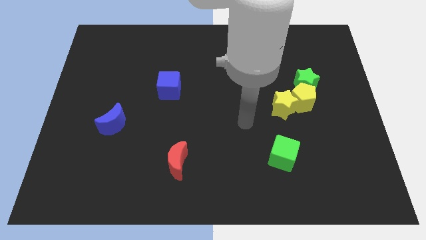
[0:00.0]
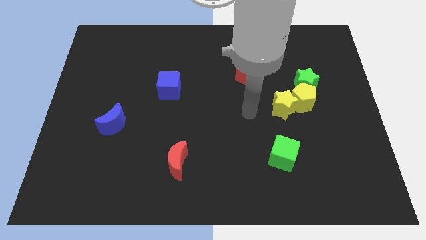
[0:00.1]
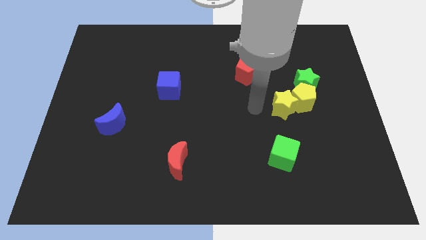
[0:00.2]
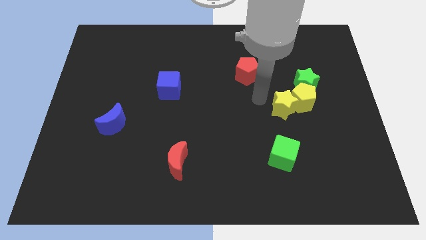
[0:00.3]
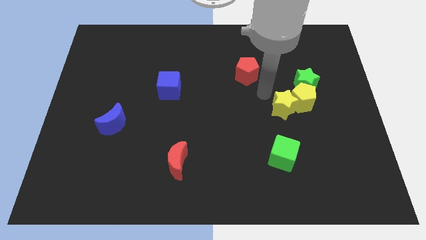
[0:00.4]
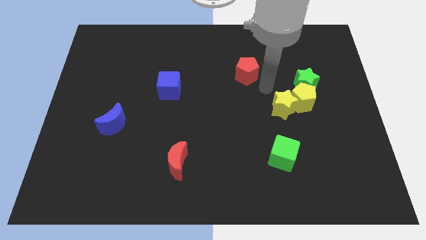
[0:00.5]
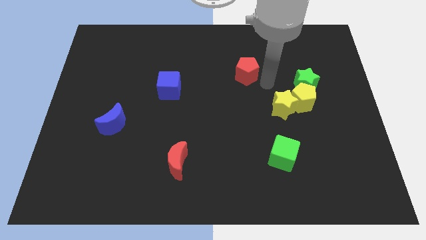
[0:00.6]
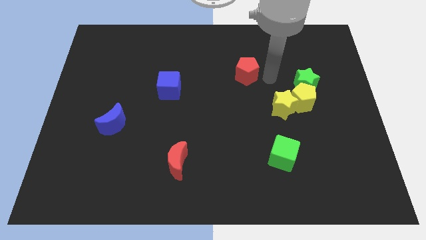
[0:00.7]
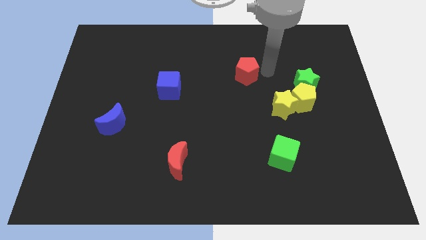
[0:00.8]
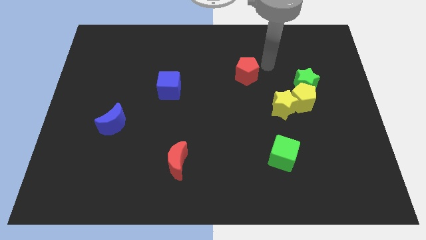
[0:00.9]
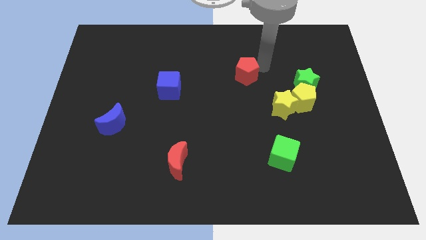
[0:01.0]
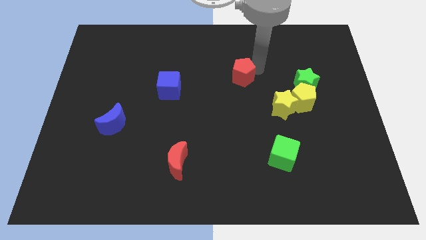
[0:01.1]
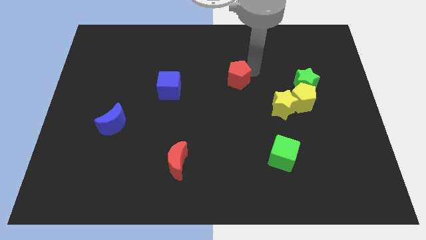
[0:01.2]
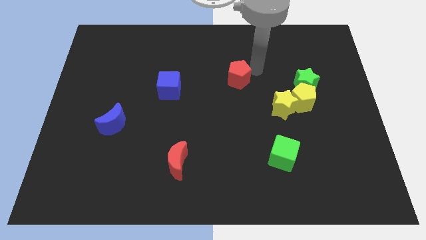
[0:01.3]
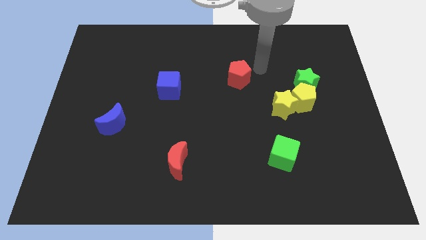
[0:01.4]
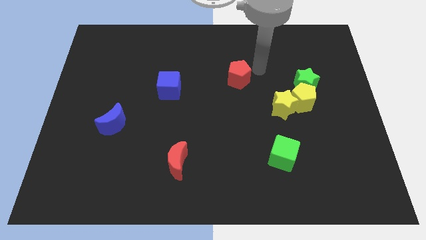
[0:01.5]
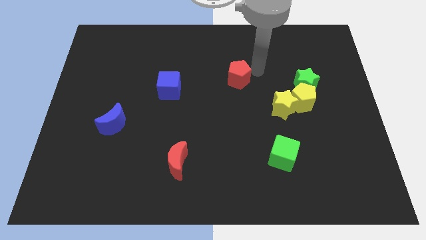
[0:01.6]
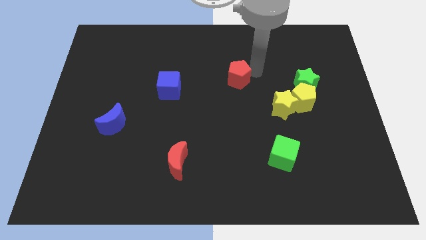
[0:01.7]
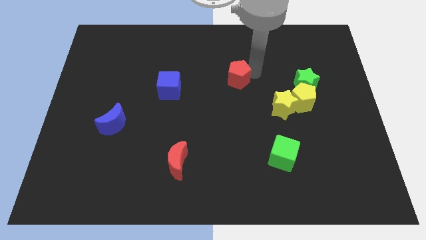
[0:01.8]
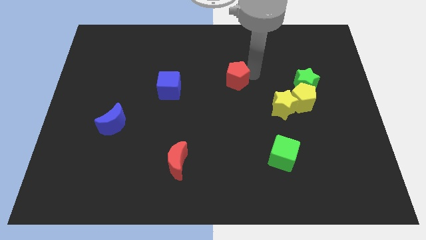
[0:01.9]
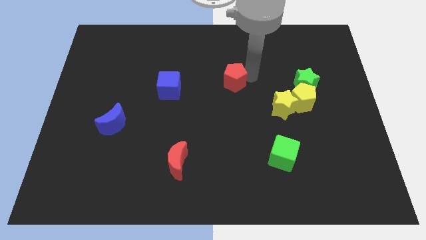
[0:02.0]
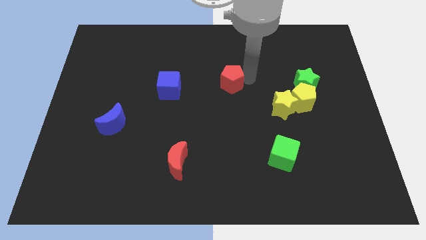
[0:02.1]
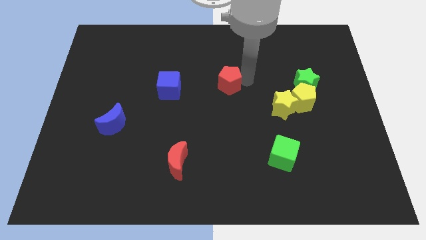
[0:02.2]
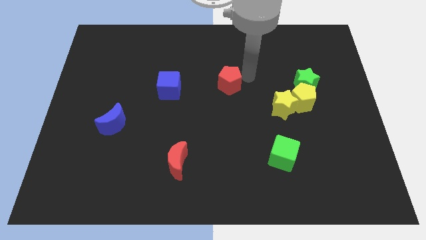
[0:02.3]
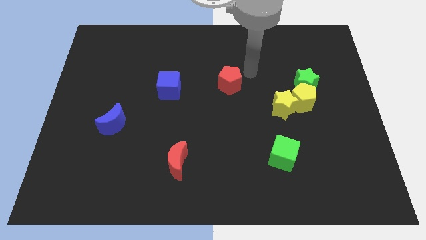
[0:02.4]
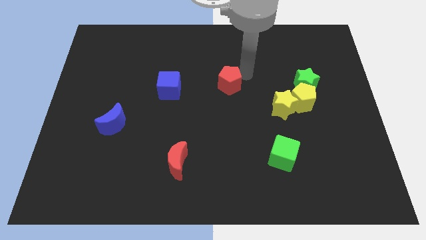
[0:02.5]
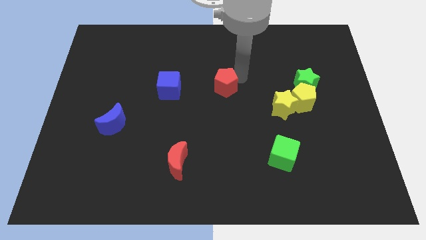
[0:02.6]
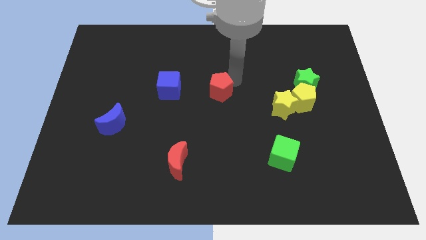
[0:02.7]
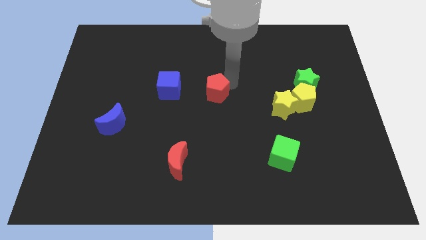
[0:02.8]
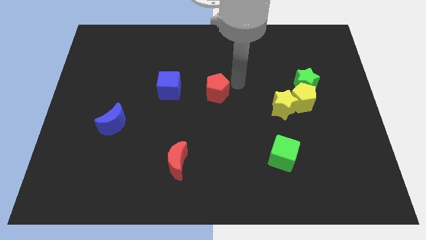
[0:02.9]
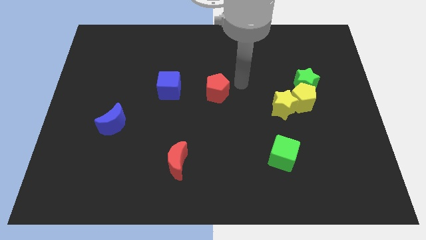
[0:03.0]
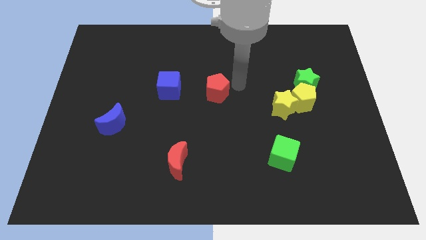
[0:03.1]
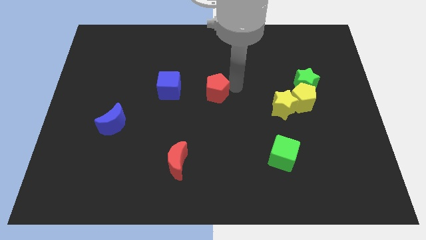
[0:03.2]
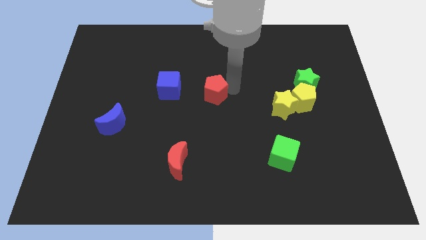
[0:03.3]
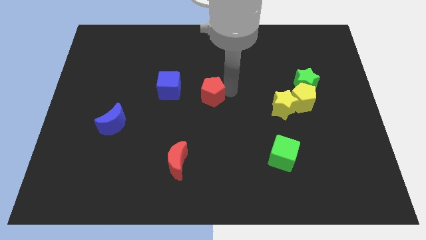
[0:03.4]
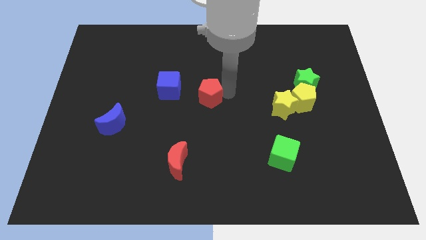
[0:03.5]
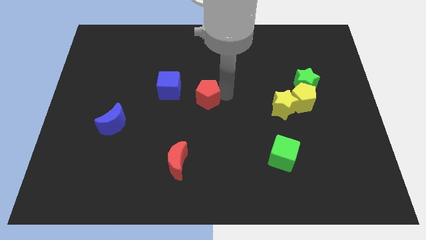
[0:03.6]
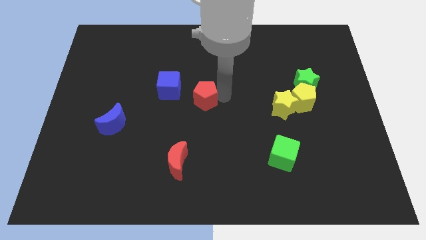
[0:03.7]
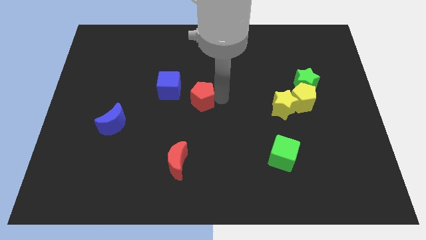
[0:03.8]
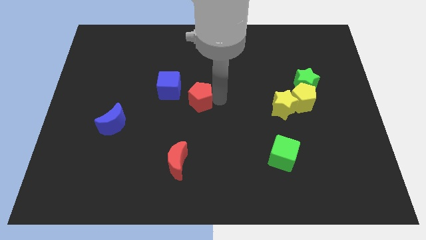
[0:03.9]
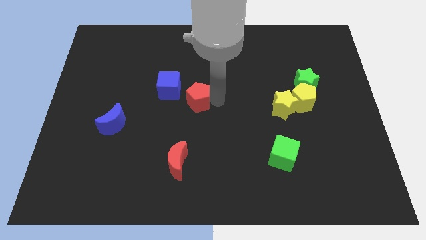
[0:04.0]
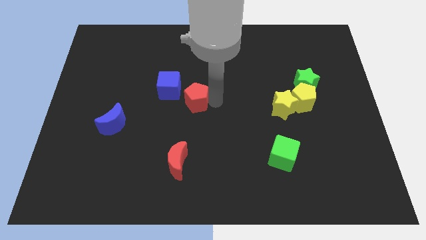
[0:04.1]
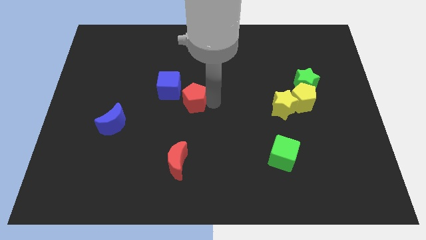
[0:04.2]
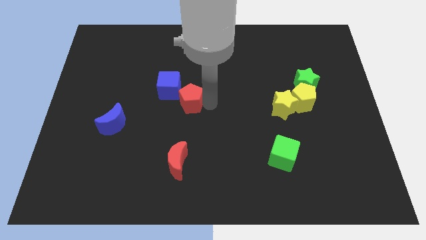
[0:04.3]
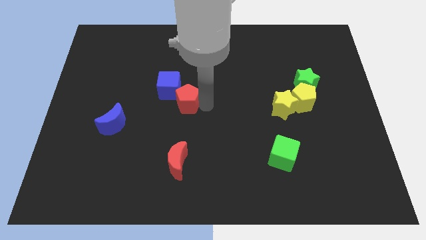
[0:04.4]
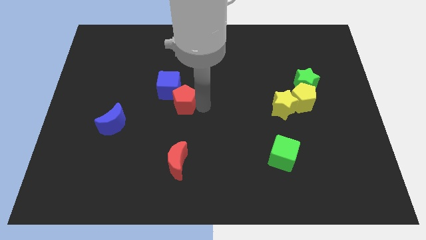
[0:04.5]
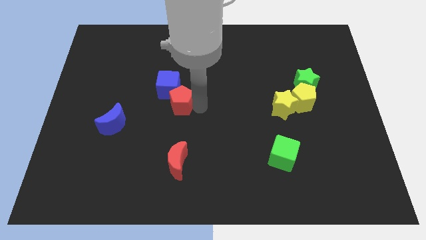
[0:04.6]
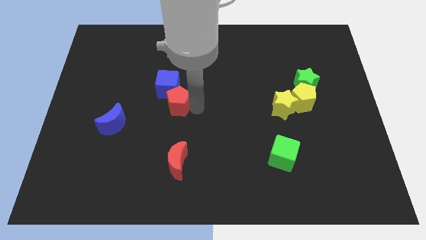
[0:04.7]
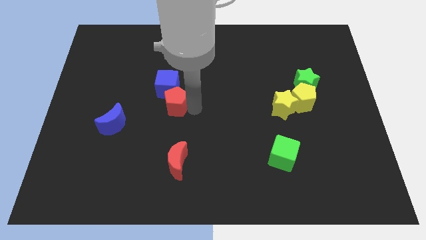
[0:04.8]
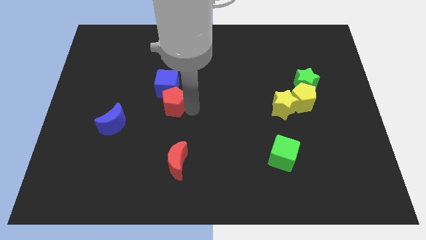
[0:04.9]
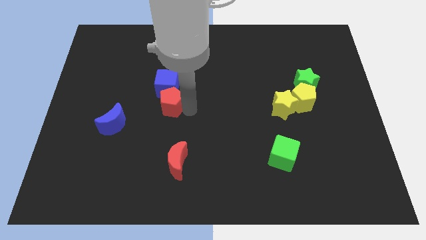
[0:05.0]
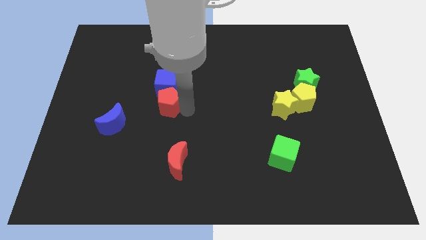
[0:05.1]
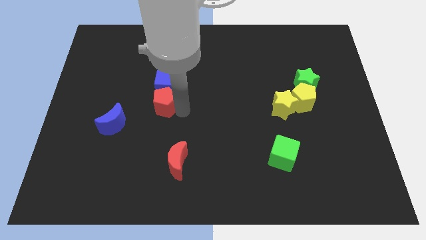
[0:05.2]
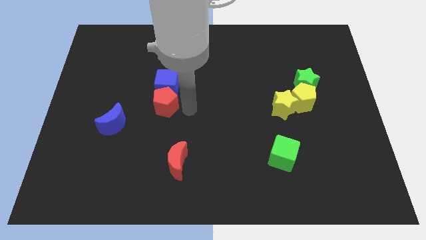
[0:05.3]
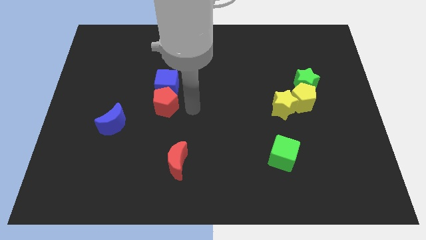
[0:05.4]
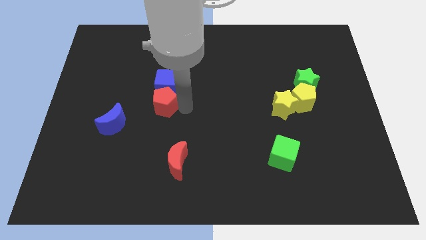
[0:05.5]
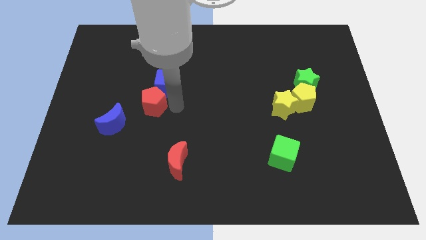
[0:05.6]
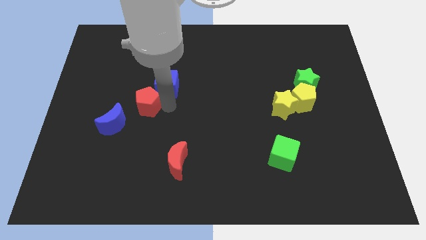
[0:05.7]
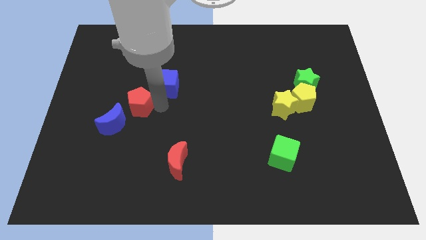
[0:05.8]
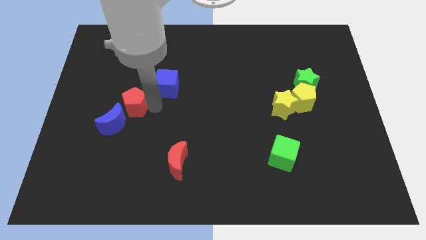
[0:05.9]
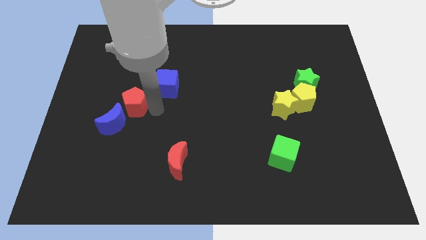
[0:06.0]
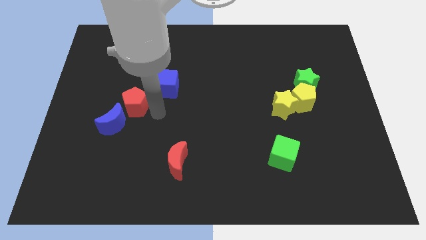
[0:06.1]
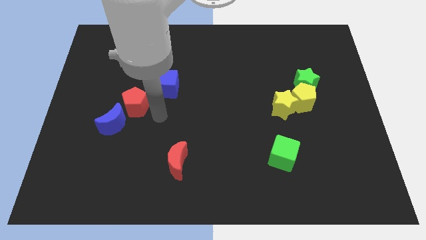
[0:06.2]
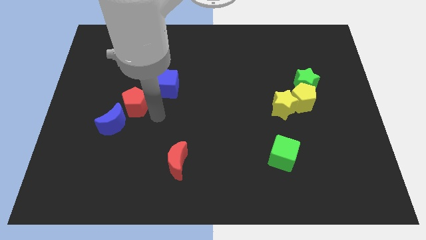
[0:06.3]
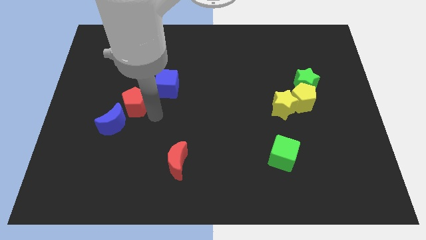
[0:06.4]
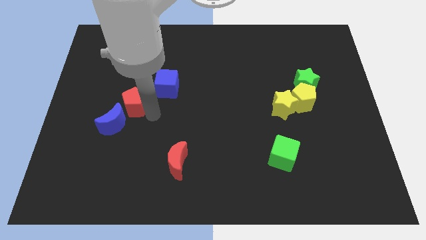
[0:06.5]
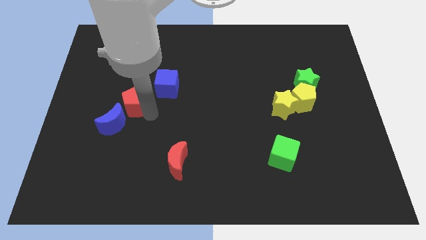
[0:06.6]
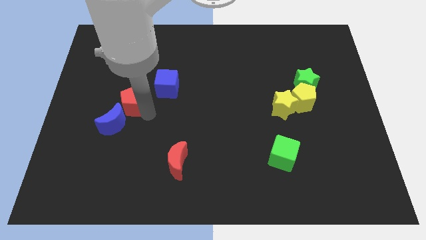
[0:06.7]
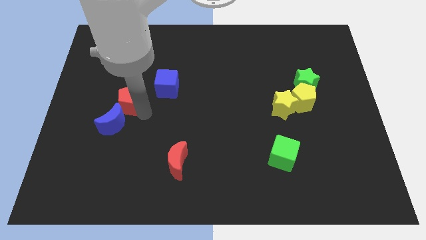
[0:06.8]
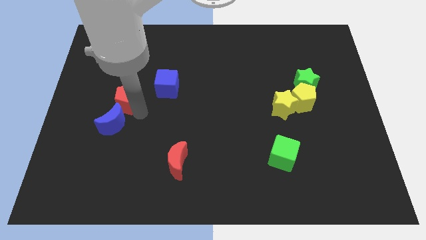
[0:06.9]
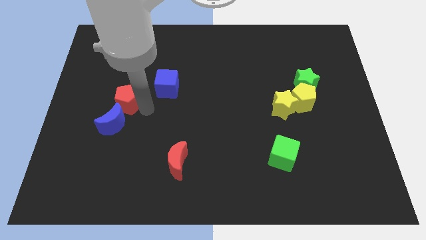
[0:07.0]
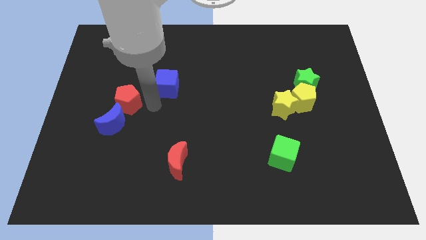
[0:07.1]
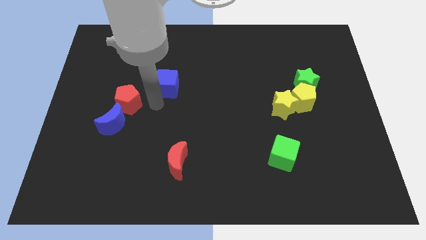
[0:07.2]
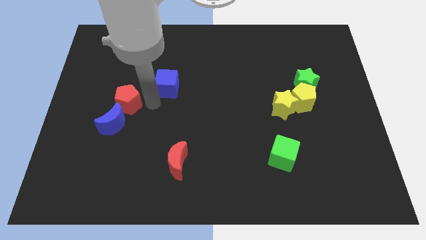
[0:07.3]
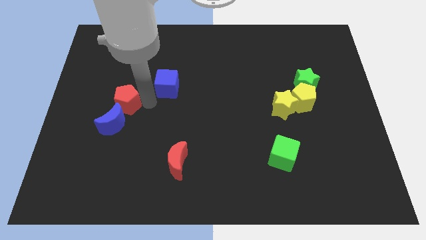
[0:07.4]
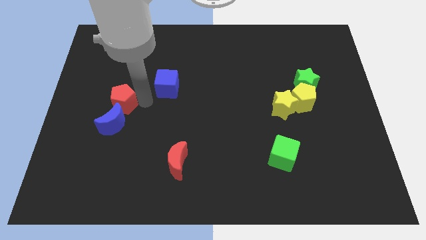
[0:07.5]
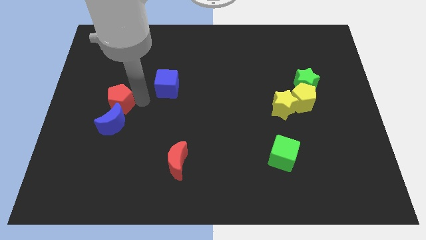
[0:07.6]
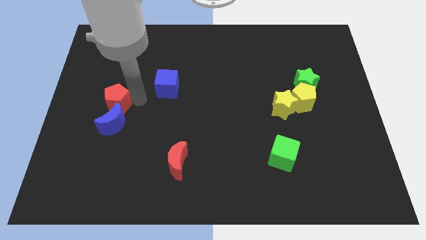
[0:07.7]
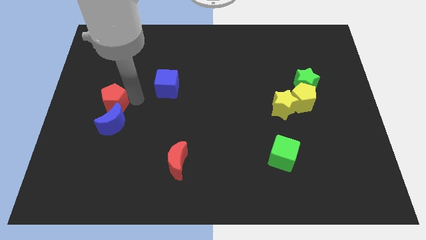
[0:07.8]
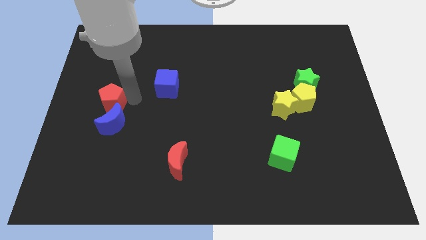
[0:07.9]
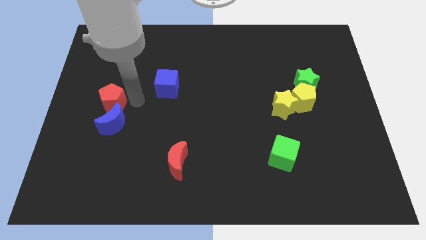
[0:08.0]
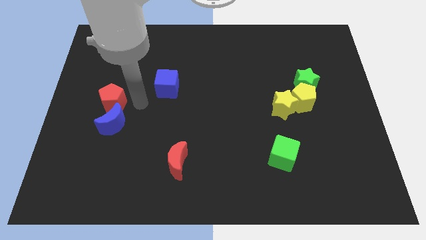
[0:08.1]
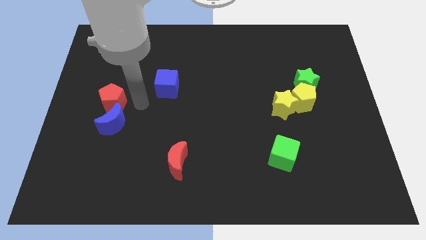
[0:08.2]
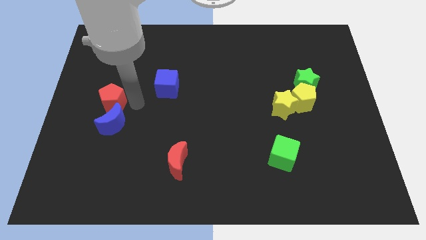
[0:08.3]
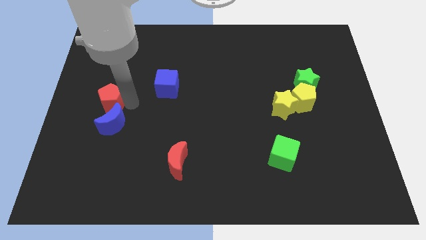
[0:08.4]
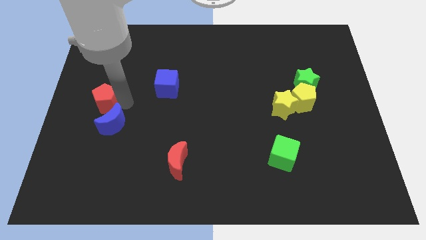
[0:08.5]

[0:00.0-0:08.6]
put the red pentagon to the left side of the board
